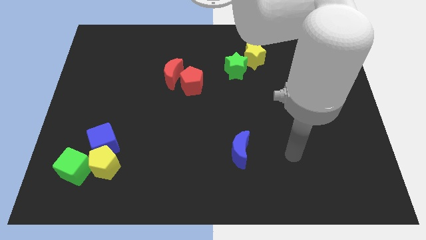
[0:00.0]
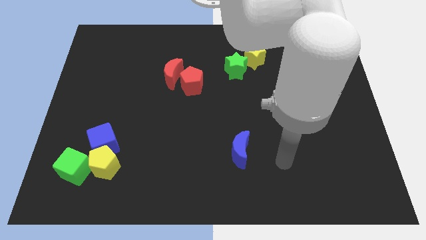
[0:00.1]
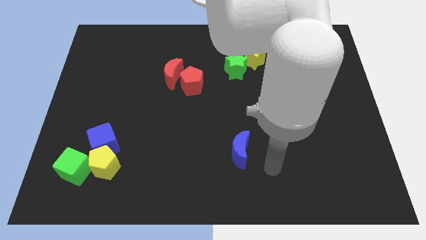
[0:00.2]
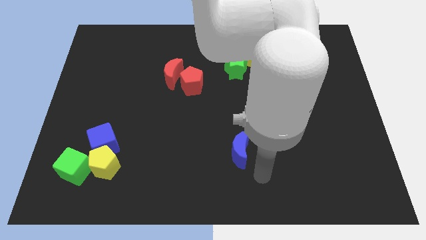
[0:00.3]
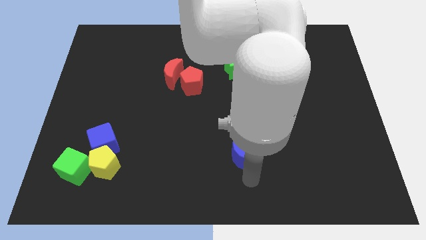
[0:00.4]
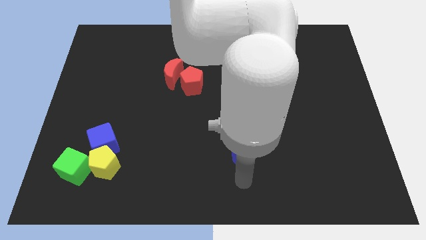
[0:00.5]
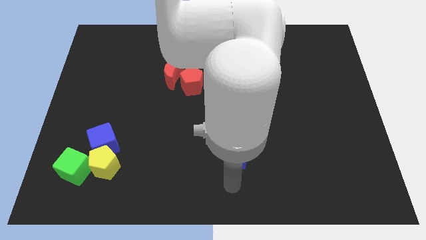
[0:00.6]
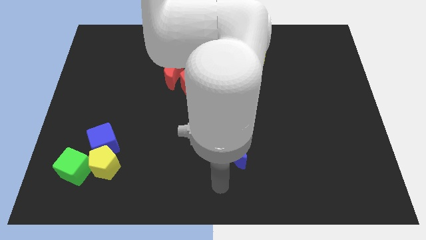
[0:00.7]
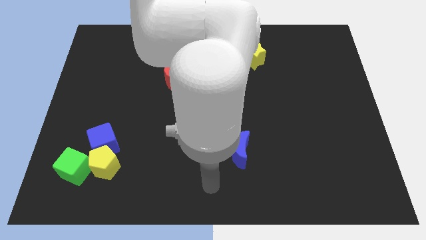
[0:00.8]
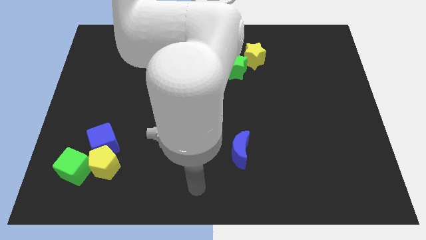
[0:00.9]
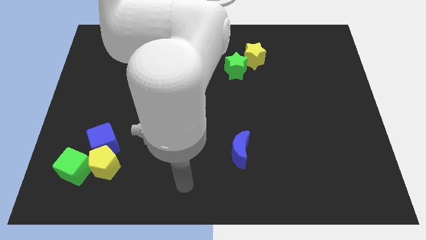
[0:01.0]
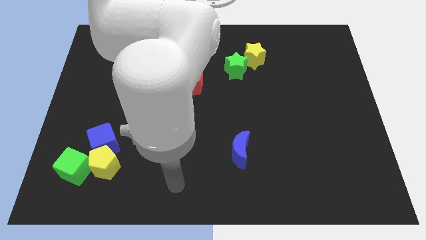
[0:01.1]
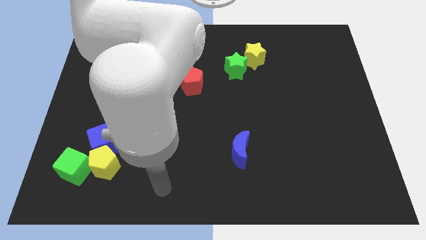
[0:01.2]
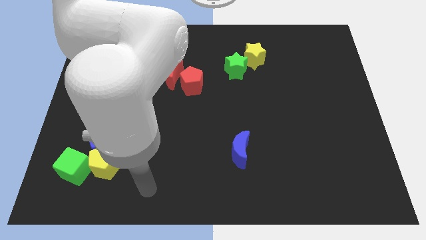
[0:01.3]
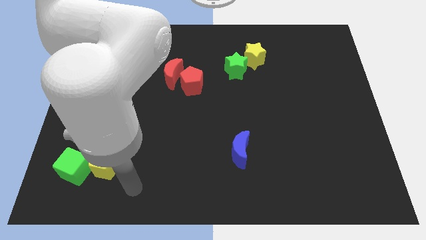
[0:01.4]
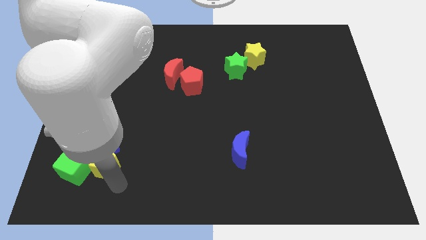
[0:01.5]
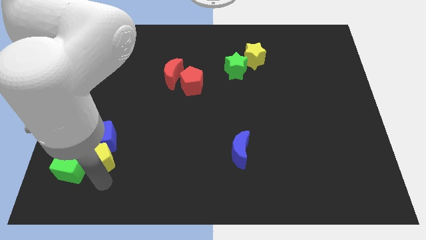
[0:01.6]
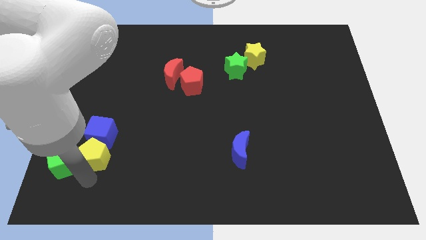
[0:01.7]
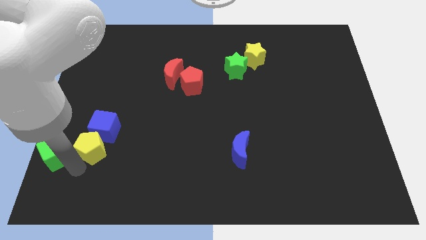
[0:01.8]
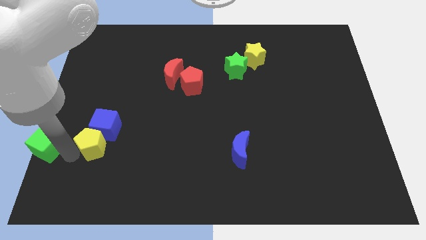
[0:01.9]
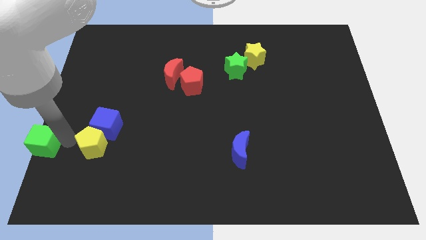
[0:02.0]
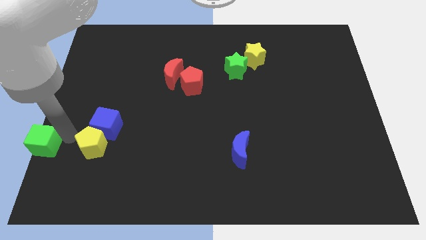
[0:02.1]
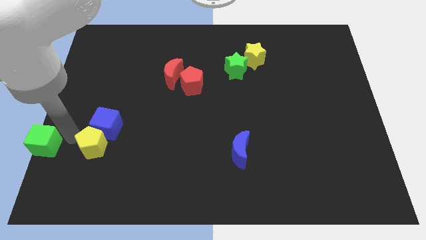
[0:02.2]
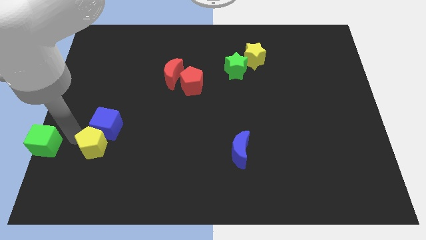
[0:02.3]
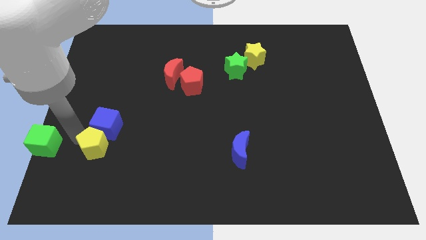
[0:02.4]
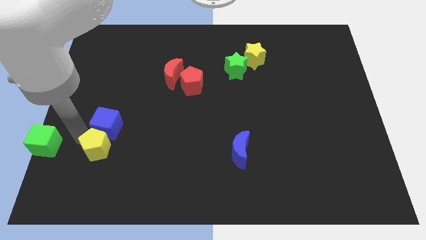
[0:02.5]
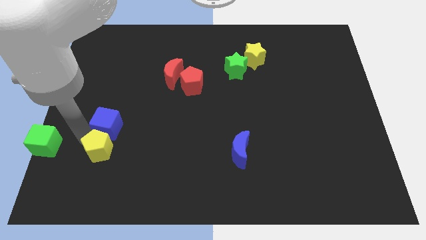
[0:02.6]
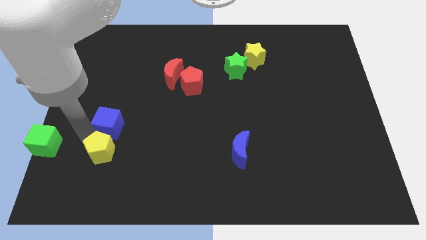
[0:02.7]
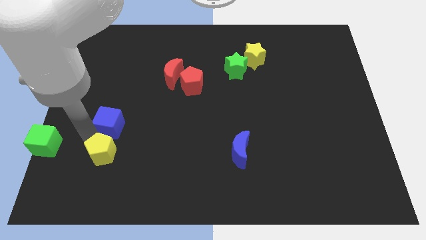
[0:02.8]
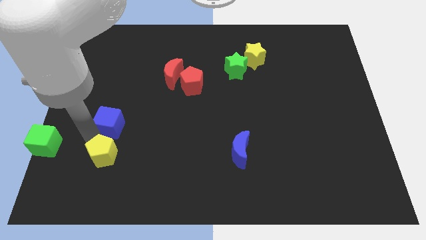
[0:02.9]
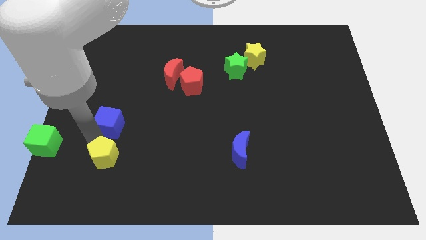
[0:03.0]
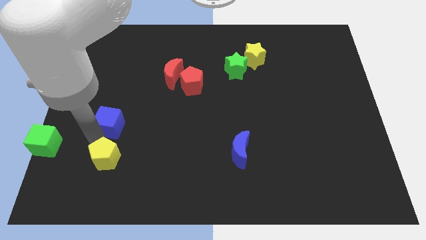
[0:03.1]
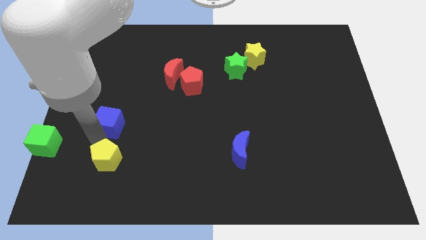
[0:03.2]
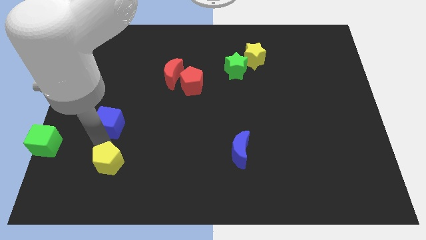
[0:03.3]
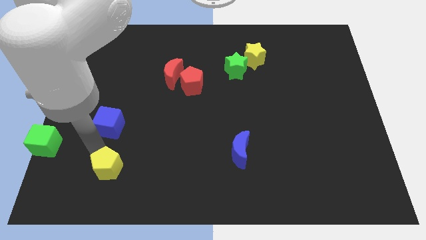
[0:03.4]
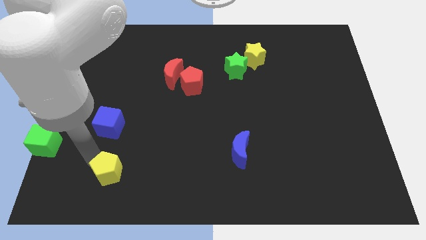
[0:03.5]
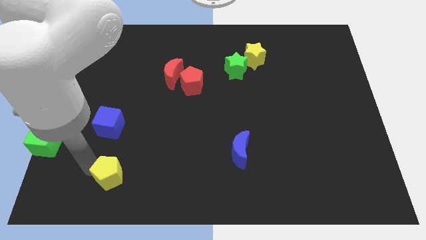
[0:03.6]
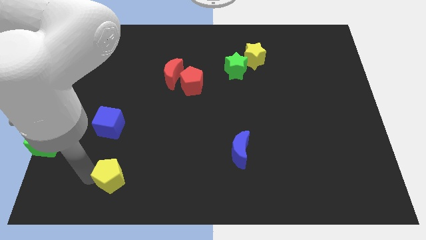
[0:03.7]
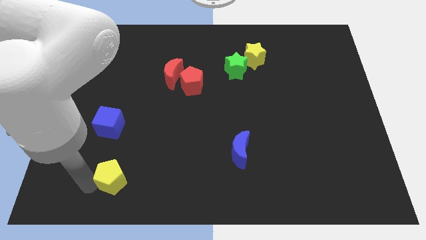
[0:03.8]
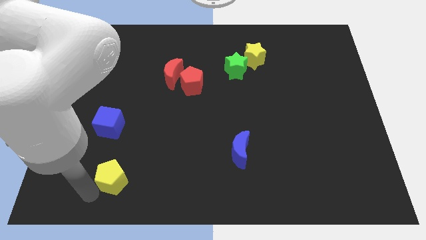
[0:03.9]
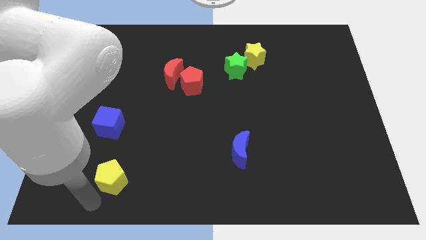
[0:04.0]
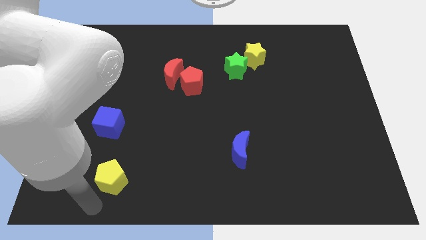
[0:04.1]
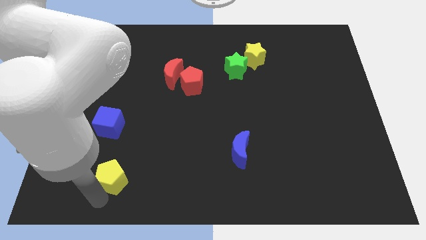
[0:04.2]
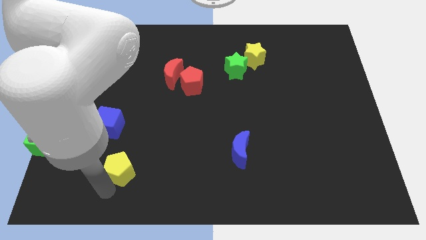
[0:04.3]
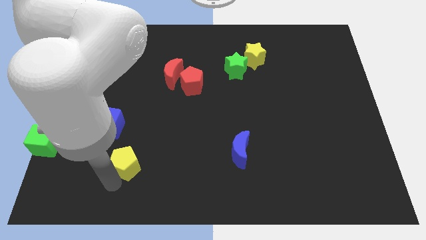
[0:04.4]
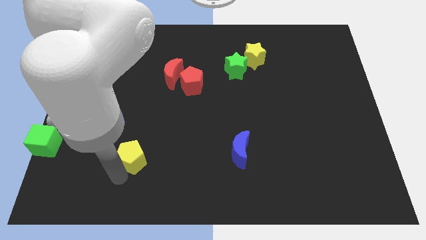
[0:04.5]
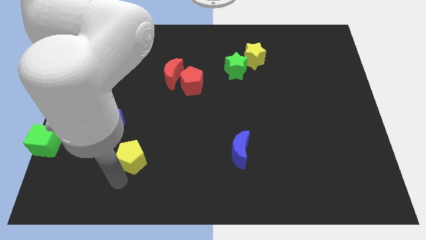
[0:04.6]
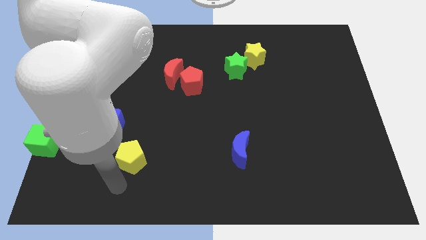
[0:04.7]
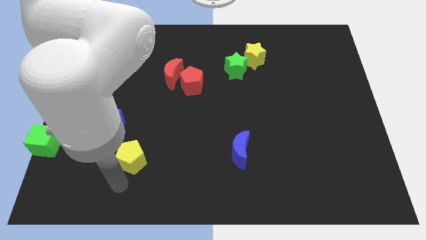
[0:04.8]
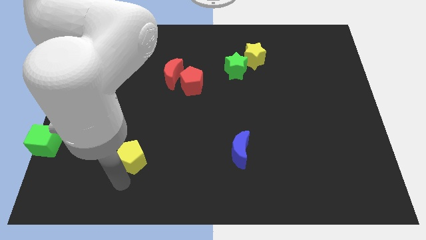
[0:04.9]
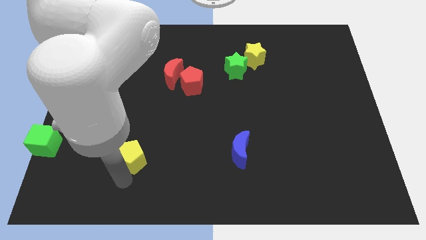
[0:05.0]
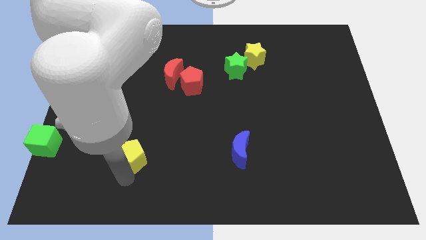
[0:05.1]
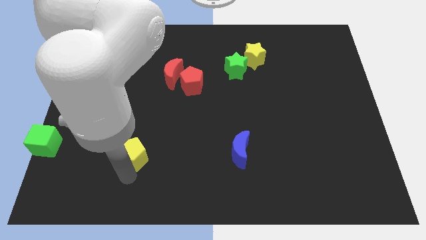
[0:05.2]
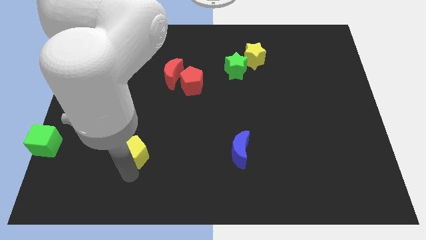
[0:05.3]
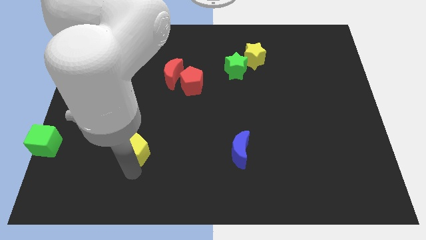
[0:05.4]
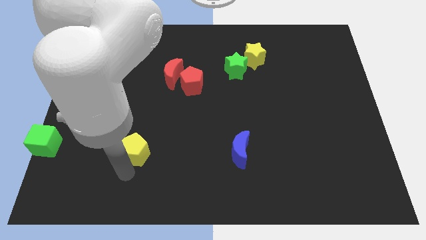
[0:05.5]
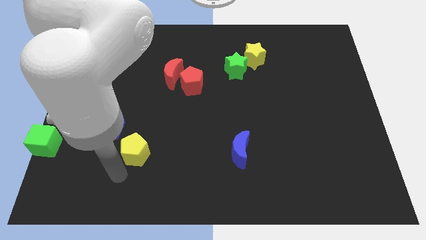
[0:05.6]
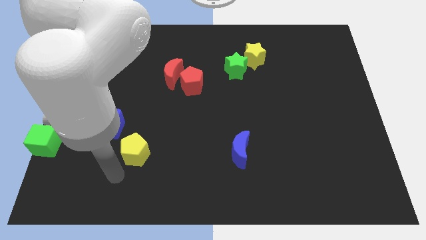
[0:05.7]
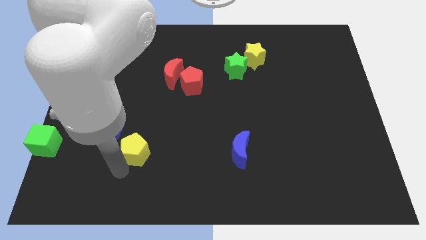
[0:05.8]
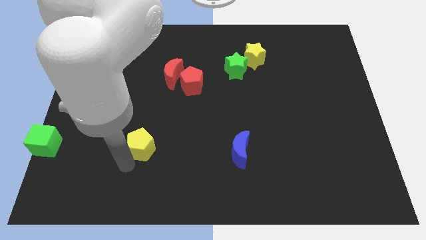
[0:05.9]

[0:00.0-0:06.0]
slightly slide the yellow pentagon up and then to the right

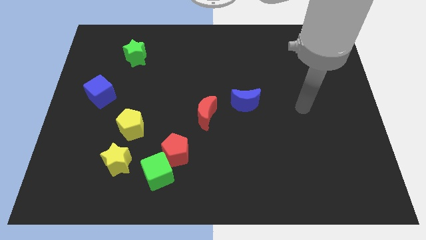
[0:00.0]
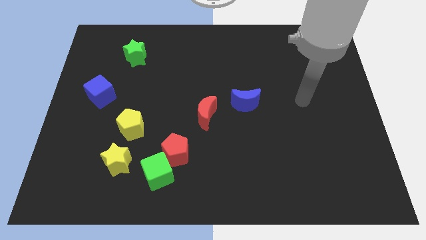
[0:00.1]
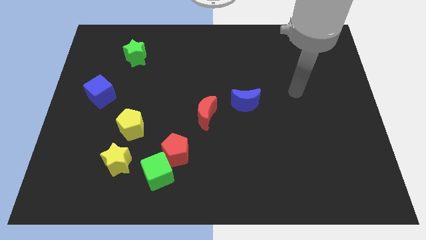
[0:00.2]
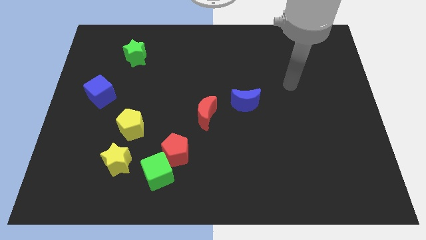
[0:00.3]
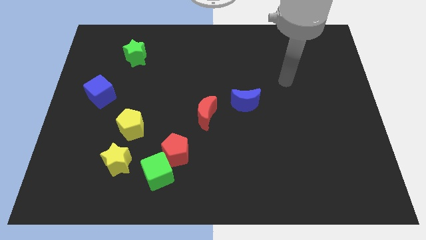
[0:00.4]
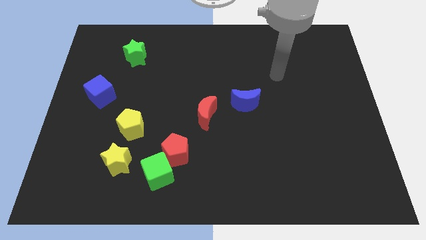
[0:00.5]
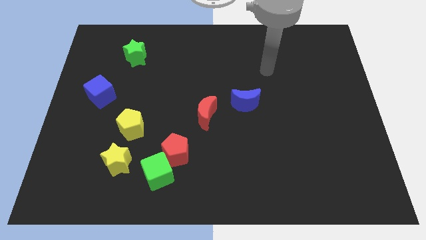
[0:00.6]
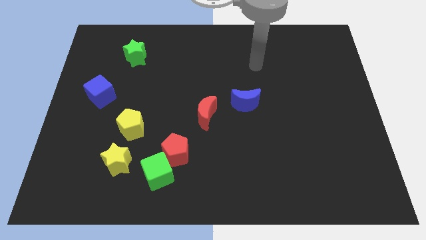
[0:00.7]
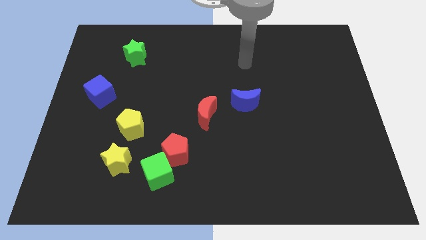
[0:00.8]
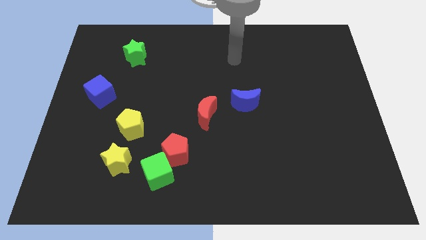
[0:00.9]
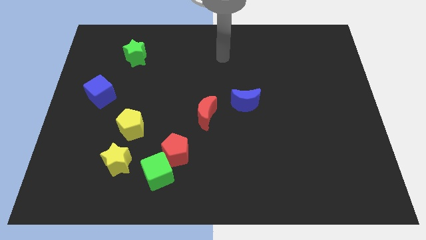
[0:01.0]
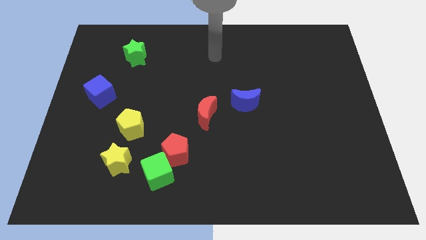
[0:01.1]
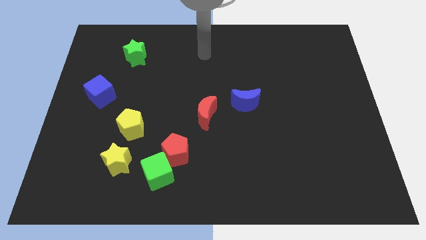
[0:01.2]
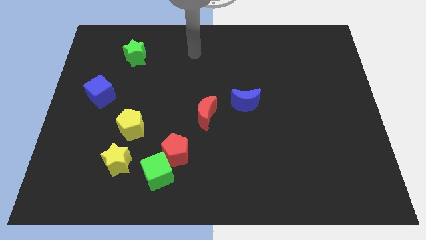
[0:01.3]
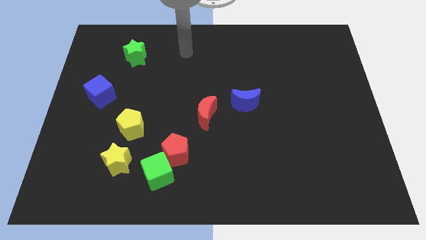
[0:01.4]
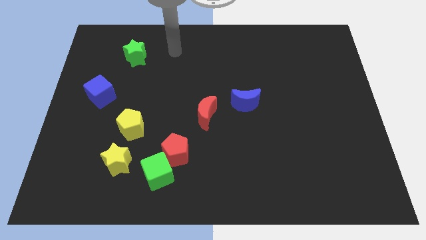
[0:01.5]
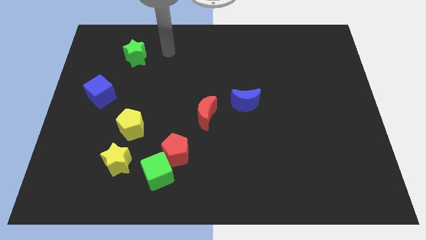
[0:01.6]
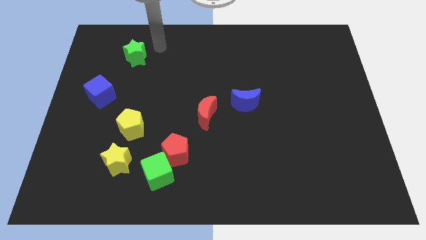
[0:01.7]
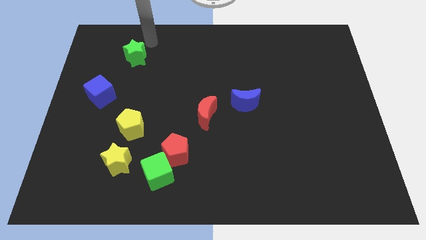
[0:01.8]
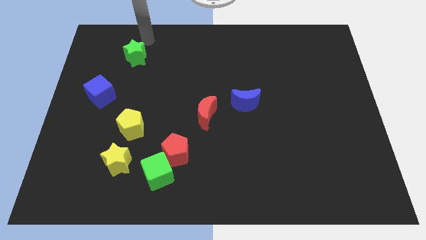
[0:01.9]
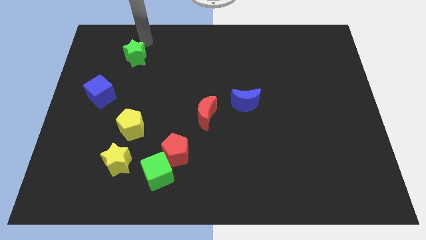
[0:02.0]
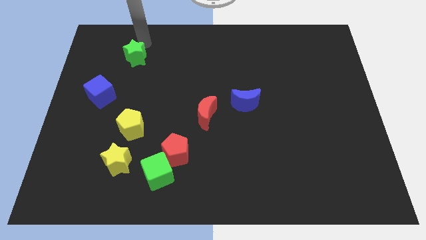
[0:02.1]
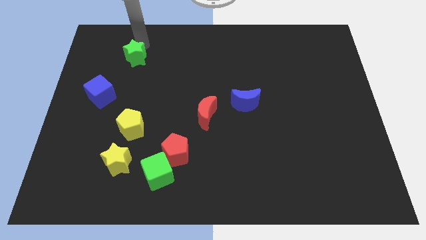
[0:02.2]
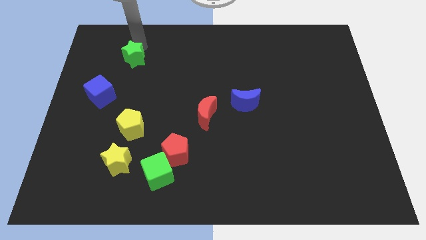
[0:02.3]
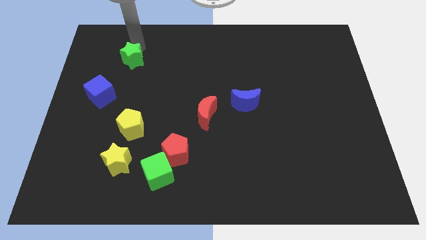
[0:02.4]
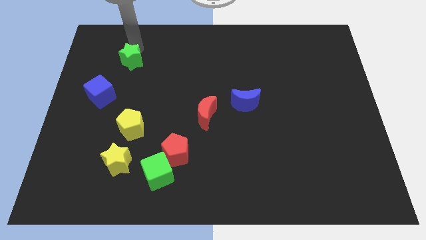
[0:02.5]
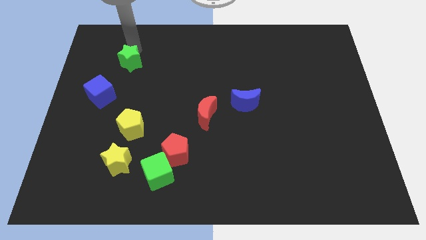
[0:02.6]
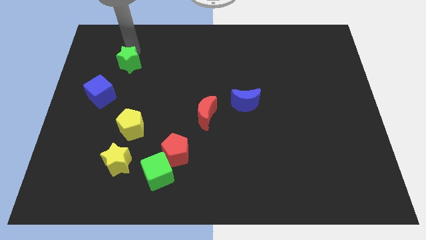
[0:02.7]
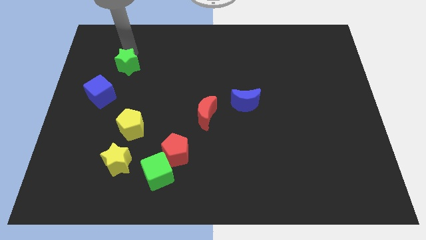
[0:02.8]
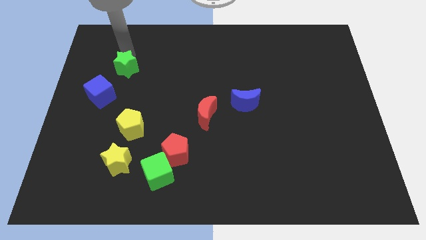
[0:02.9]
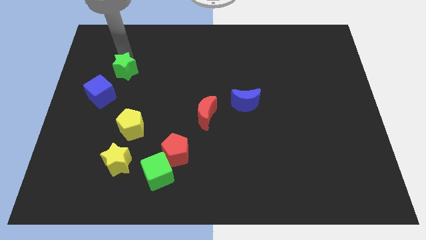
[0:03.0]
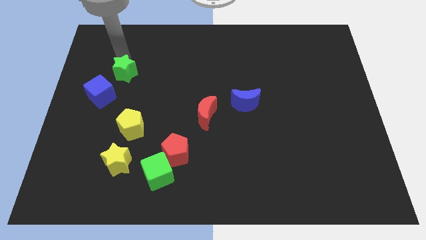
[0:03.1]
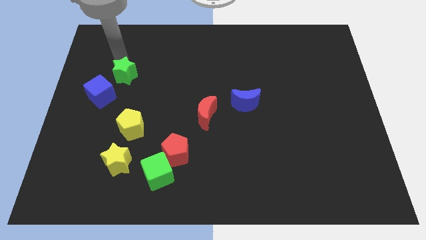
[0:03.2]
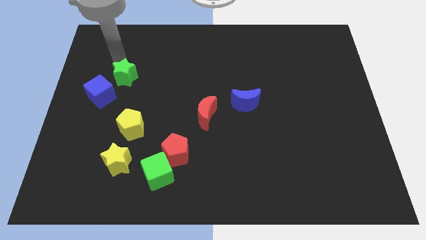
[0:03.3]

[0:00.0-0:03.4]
slightly push the green star down
